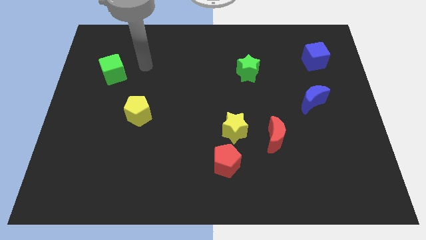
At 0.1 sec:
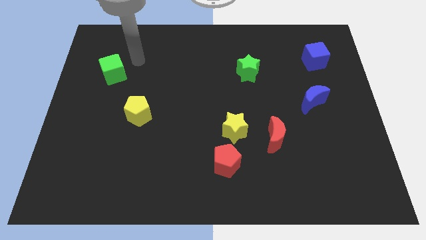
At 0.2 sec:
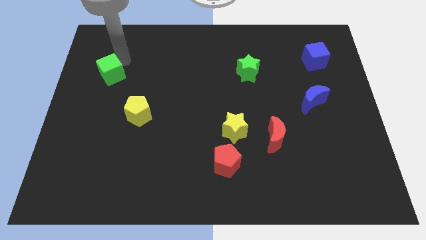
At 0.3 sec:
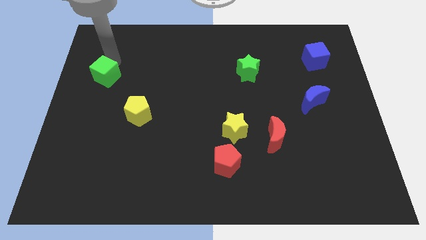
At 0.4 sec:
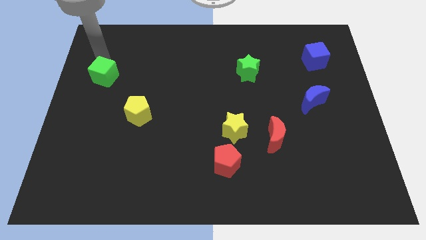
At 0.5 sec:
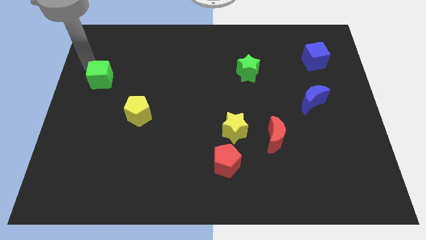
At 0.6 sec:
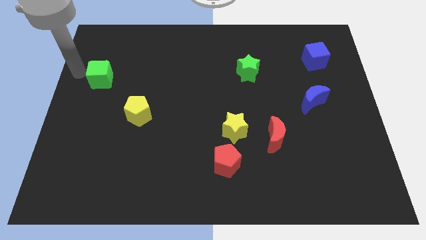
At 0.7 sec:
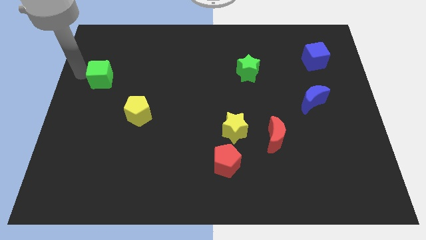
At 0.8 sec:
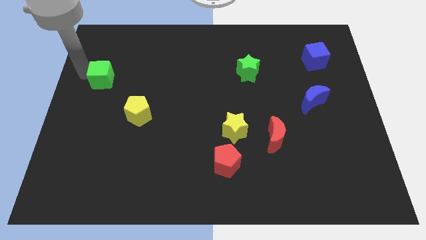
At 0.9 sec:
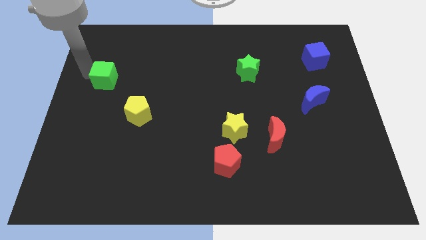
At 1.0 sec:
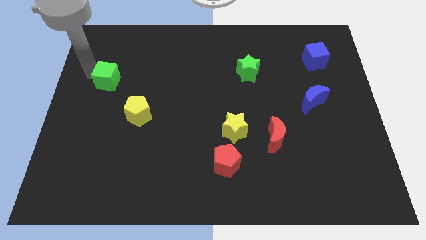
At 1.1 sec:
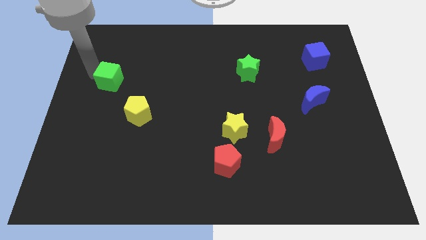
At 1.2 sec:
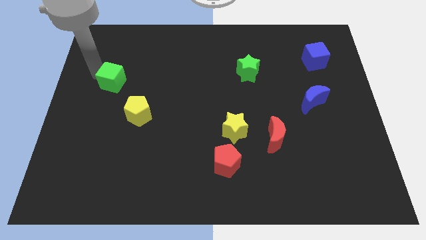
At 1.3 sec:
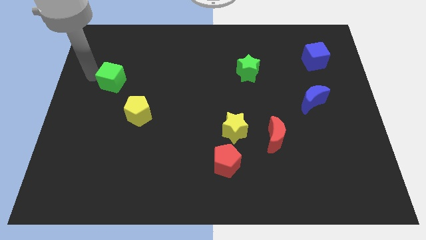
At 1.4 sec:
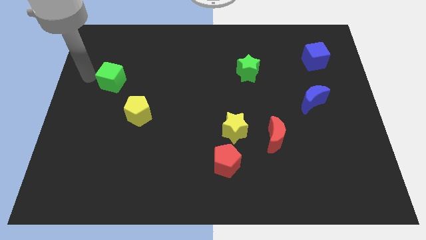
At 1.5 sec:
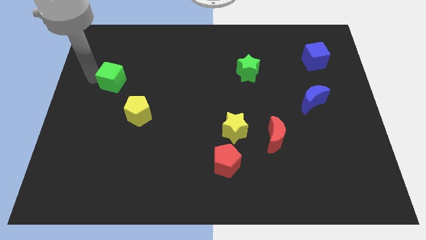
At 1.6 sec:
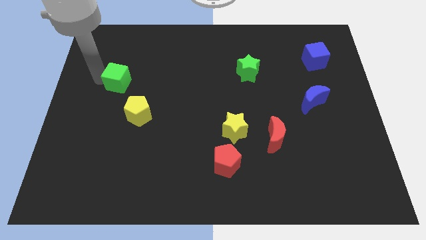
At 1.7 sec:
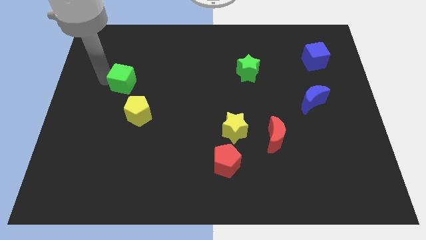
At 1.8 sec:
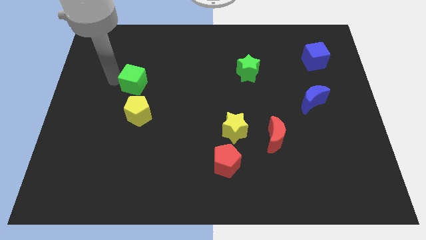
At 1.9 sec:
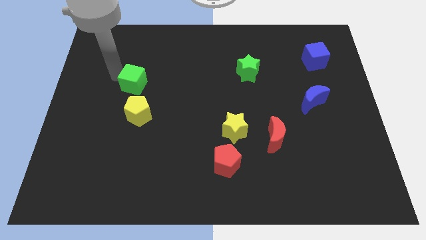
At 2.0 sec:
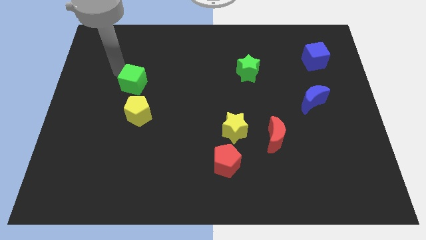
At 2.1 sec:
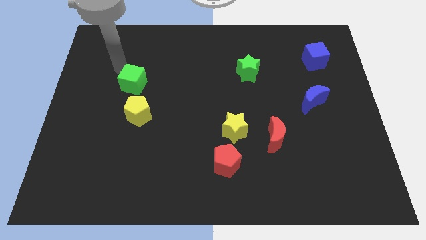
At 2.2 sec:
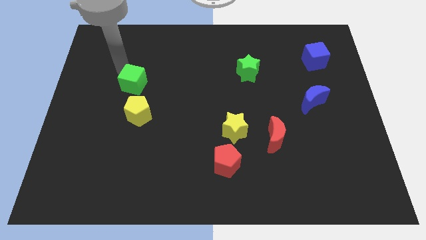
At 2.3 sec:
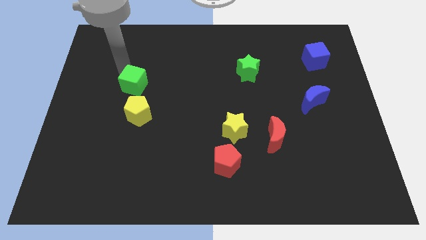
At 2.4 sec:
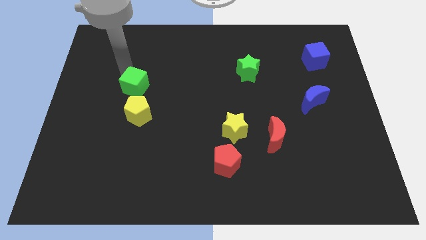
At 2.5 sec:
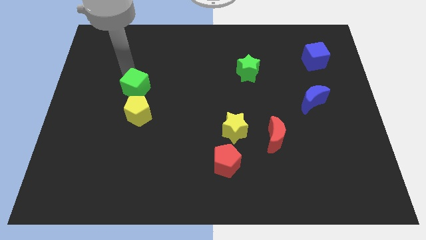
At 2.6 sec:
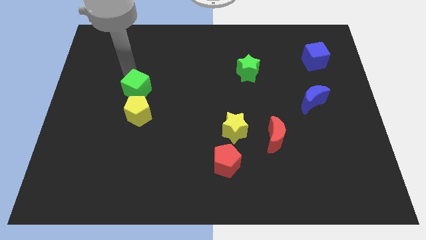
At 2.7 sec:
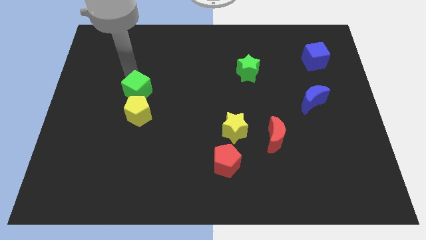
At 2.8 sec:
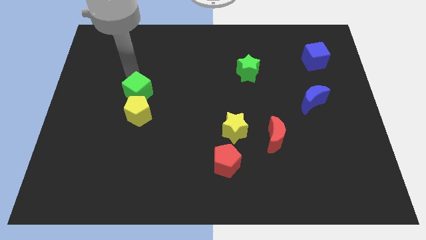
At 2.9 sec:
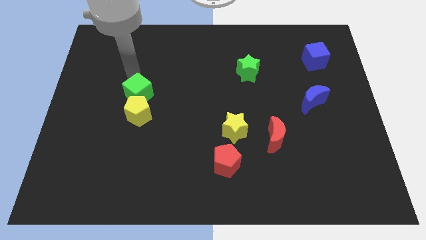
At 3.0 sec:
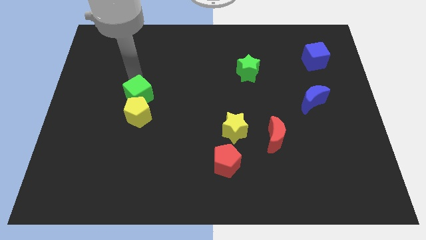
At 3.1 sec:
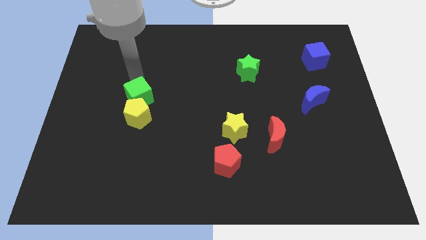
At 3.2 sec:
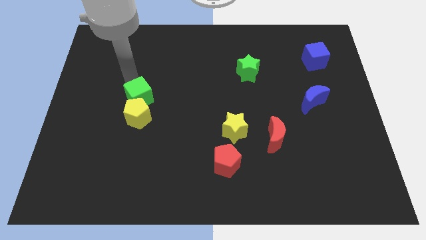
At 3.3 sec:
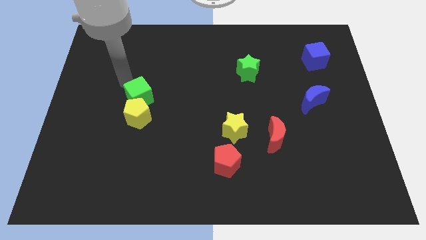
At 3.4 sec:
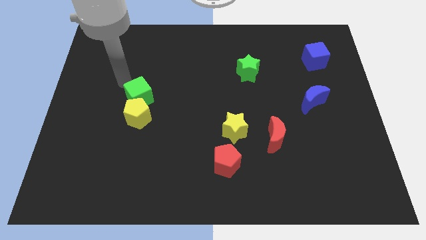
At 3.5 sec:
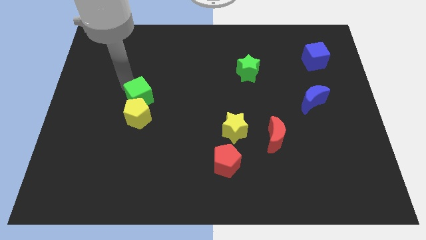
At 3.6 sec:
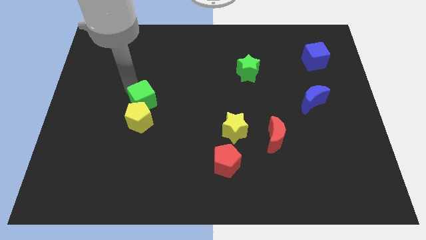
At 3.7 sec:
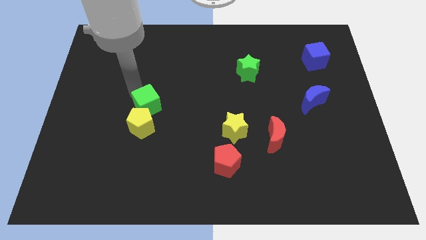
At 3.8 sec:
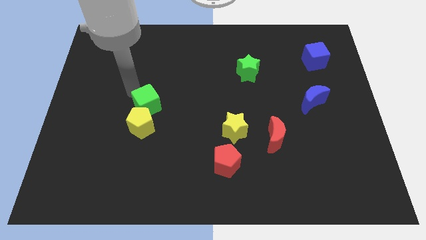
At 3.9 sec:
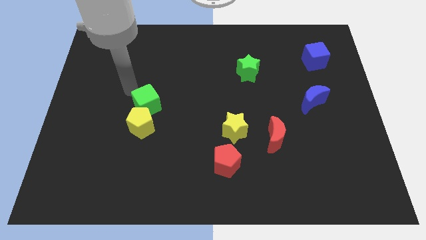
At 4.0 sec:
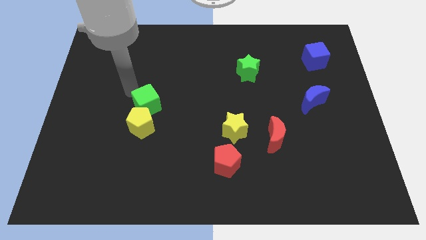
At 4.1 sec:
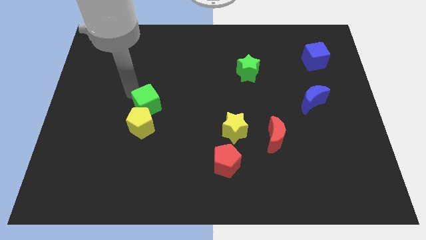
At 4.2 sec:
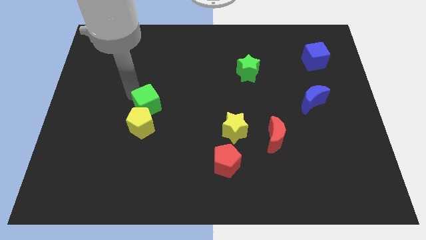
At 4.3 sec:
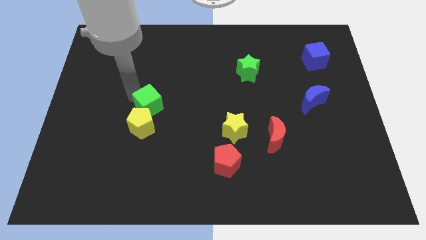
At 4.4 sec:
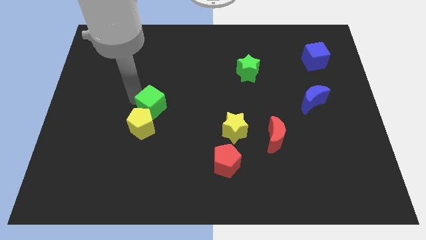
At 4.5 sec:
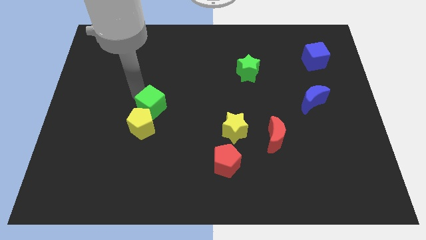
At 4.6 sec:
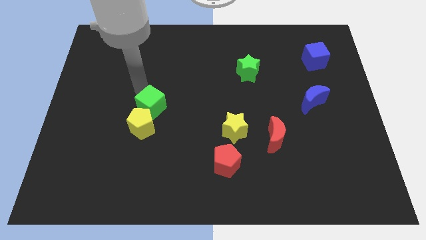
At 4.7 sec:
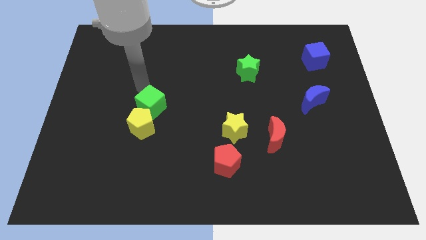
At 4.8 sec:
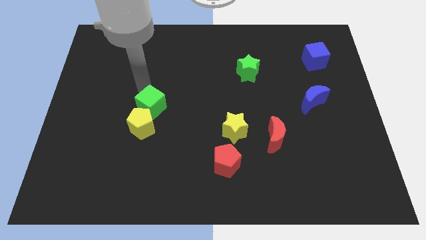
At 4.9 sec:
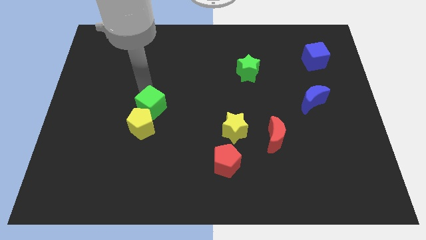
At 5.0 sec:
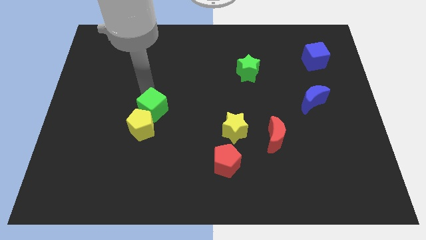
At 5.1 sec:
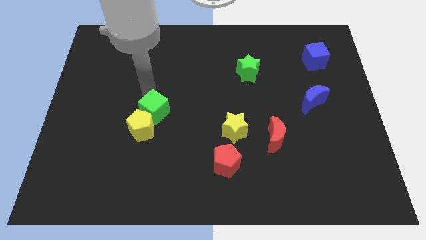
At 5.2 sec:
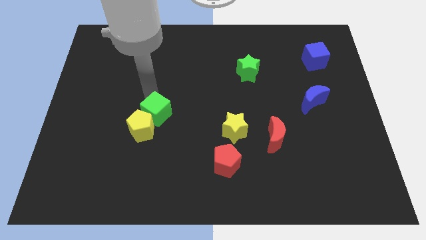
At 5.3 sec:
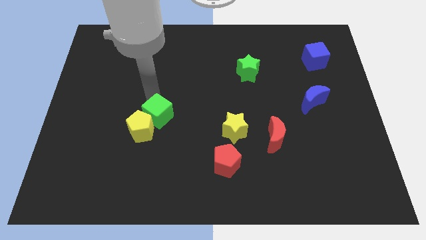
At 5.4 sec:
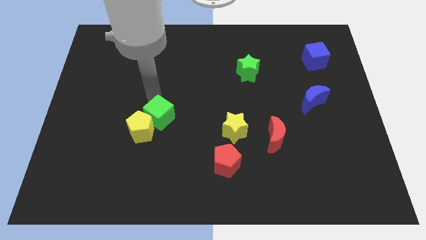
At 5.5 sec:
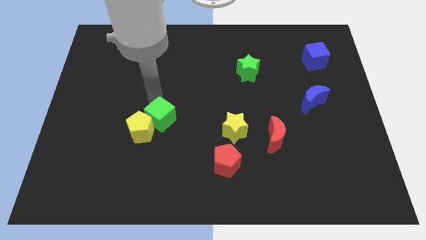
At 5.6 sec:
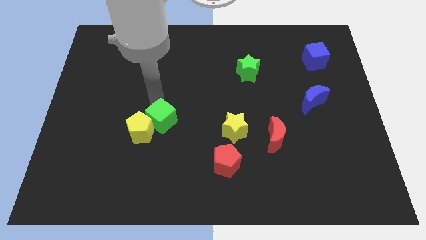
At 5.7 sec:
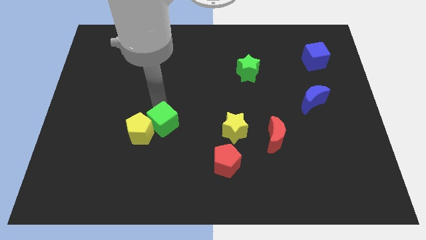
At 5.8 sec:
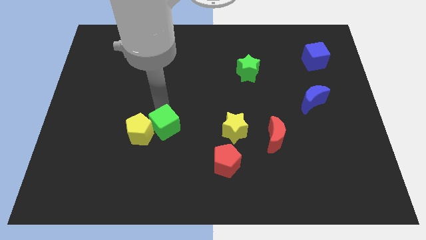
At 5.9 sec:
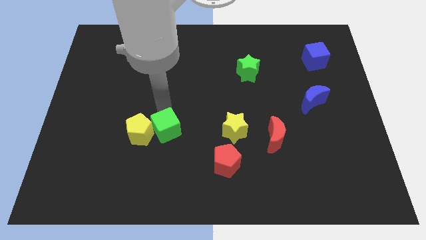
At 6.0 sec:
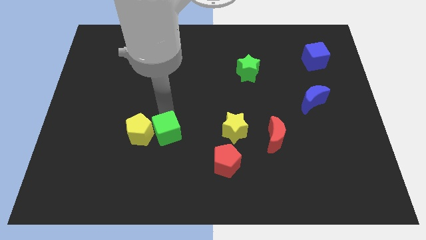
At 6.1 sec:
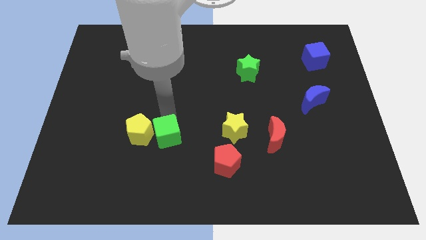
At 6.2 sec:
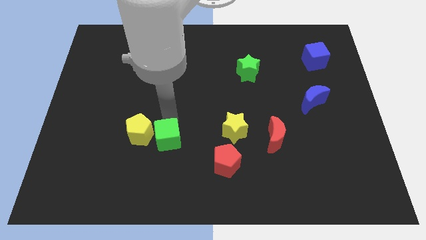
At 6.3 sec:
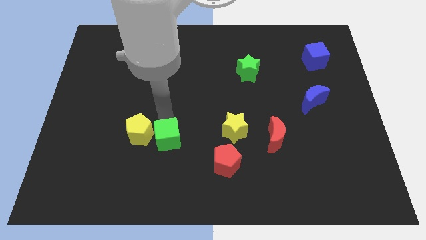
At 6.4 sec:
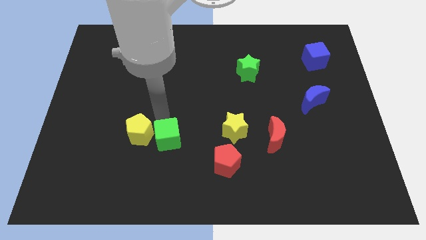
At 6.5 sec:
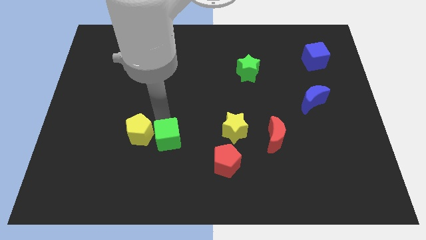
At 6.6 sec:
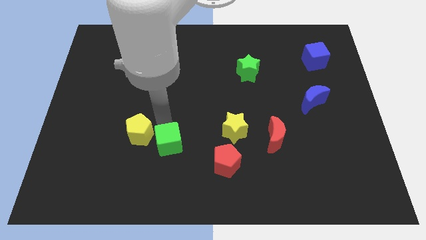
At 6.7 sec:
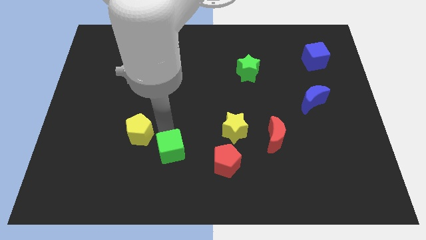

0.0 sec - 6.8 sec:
put the green cube to the left side of the red pentagon

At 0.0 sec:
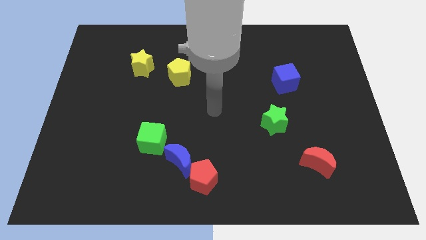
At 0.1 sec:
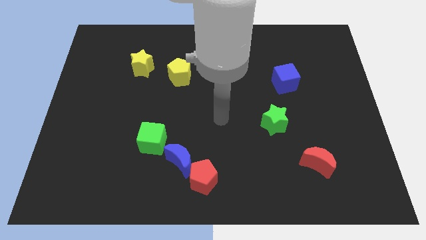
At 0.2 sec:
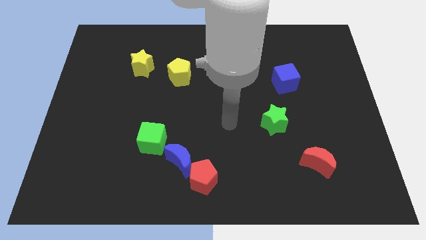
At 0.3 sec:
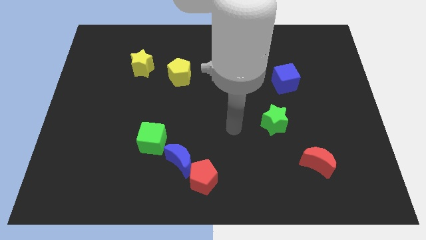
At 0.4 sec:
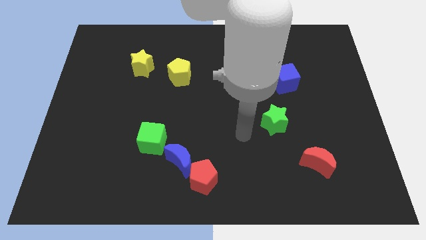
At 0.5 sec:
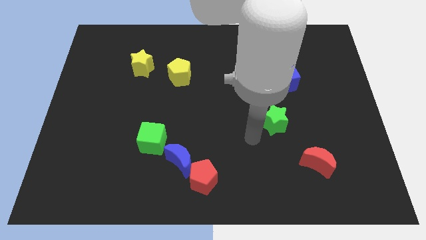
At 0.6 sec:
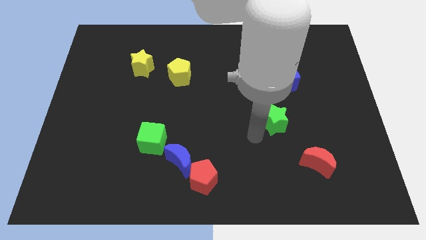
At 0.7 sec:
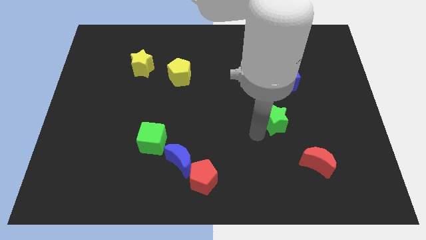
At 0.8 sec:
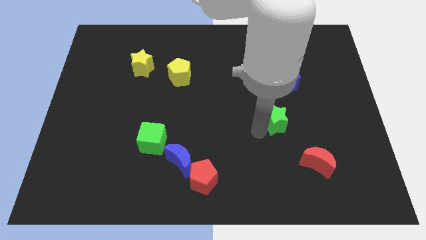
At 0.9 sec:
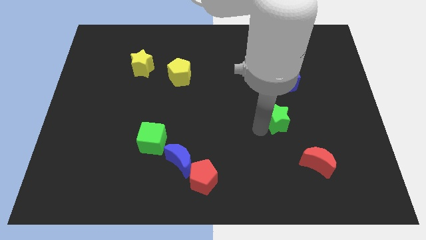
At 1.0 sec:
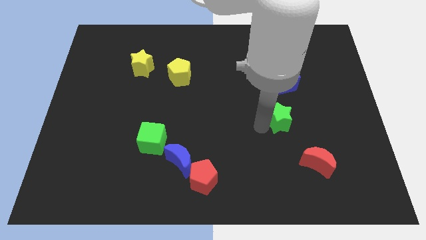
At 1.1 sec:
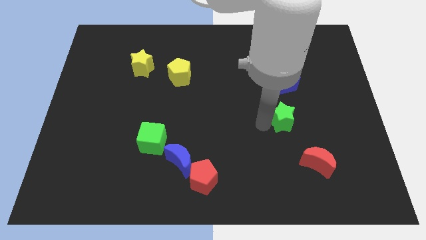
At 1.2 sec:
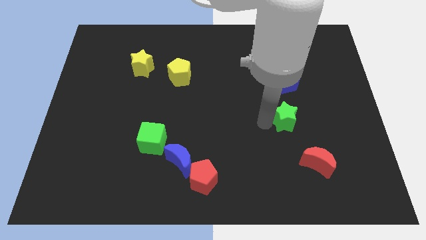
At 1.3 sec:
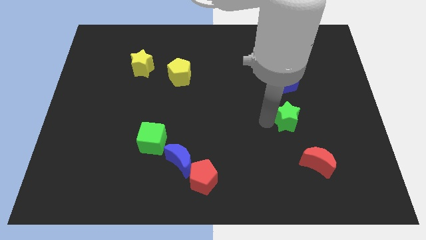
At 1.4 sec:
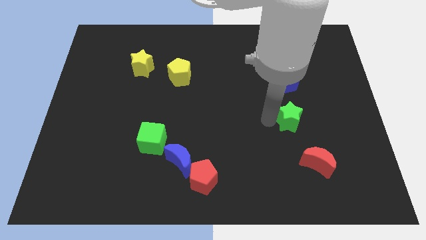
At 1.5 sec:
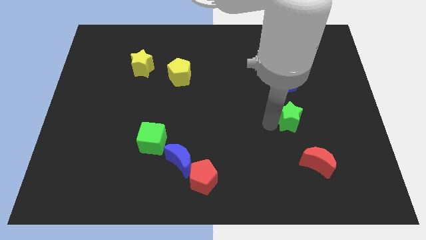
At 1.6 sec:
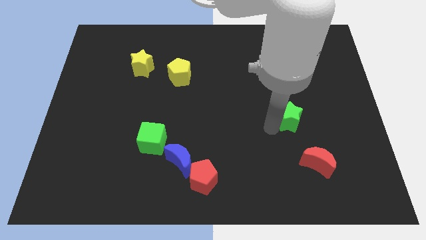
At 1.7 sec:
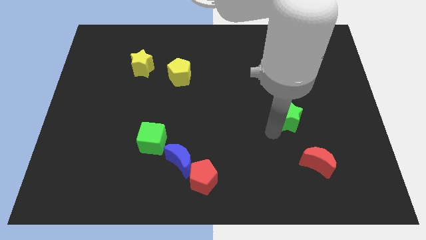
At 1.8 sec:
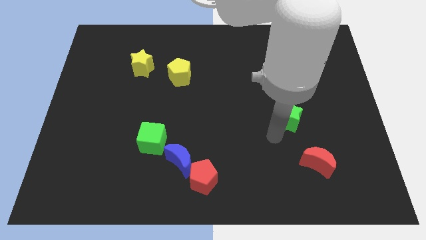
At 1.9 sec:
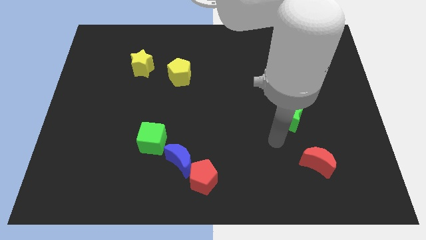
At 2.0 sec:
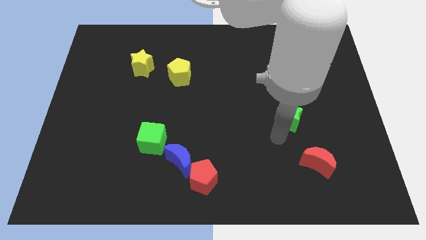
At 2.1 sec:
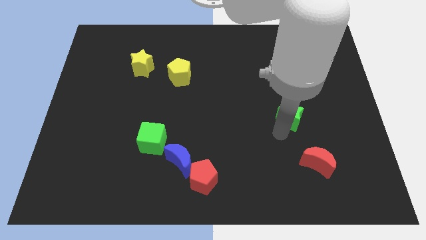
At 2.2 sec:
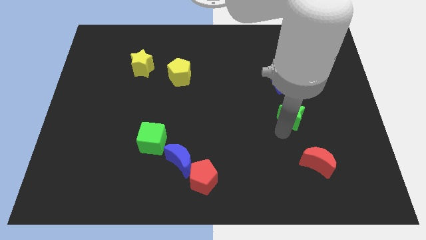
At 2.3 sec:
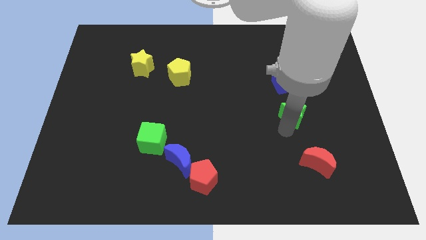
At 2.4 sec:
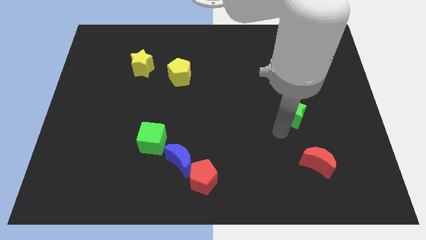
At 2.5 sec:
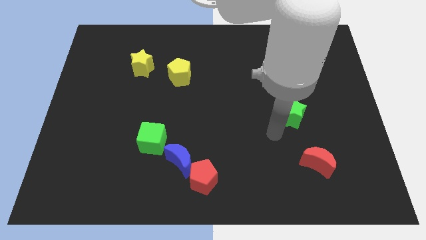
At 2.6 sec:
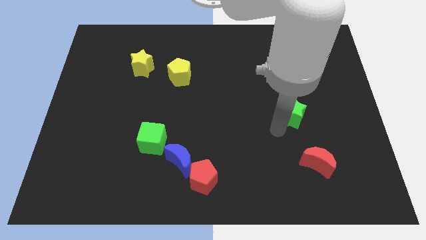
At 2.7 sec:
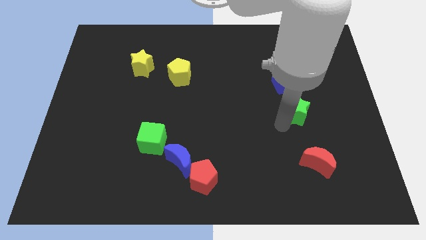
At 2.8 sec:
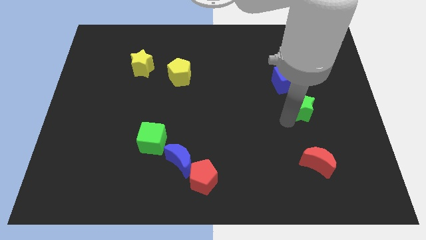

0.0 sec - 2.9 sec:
move the green star to the bottom right of the blue cube
